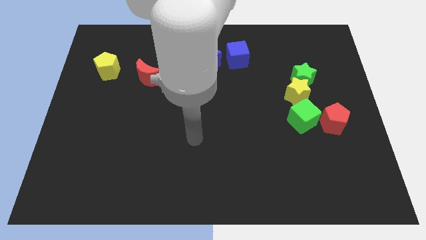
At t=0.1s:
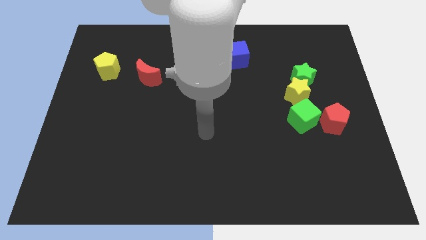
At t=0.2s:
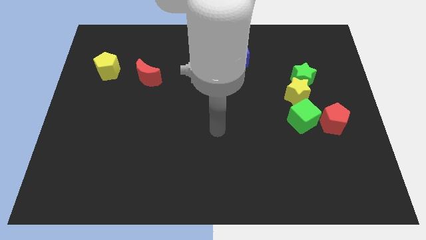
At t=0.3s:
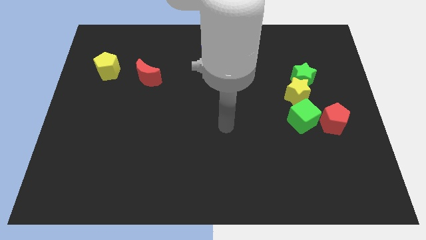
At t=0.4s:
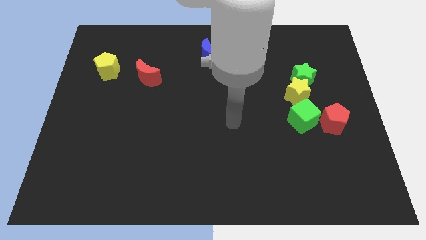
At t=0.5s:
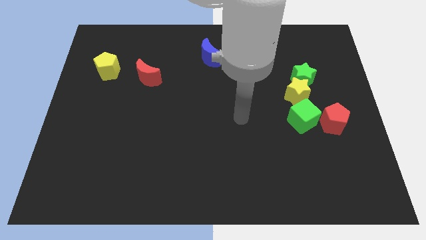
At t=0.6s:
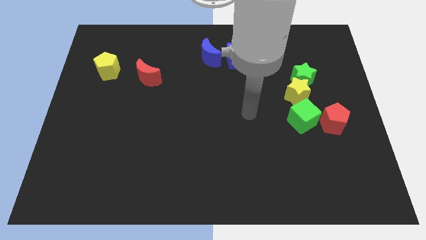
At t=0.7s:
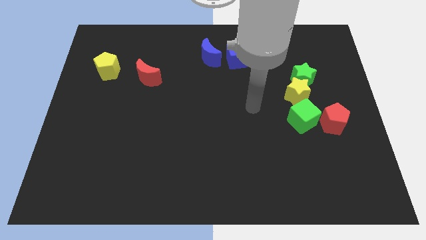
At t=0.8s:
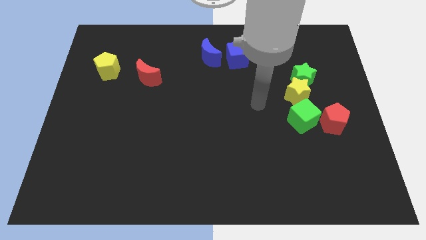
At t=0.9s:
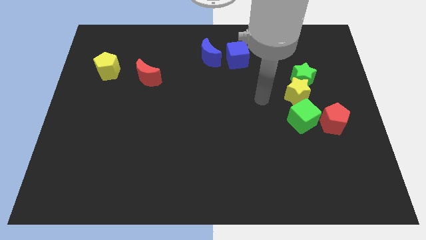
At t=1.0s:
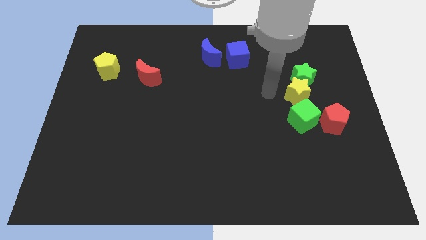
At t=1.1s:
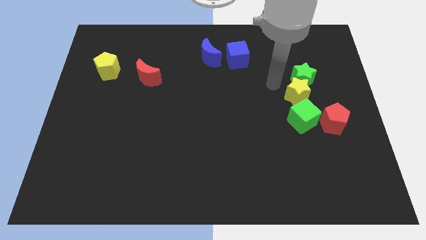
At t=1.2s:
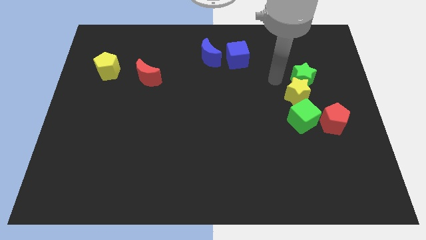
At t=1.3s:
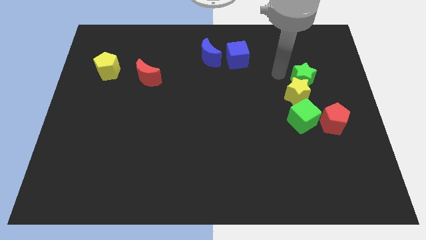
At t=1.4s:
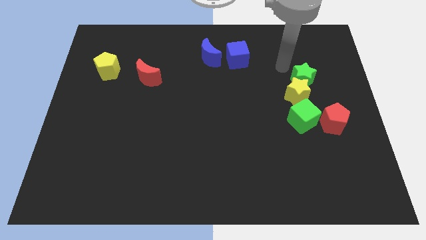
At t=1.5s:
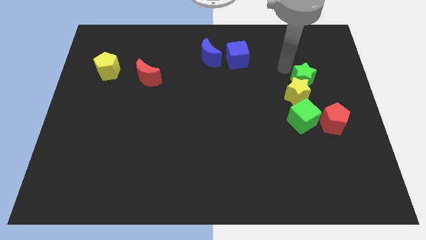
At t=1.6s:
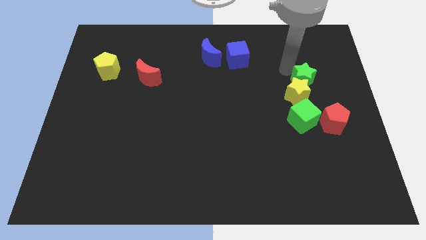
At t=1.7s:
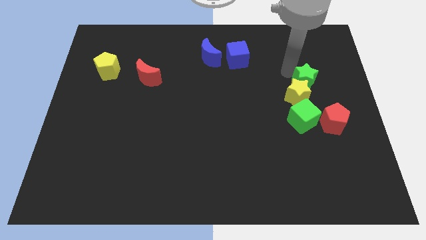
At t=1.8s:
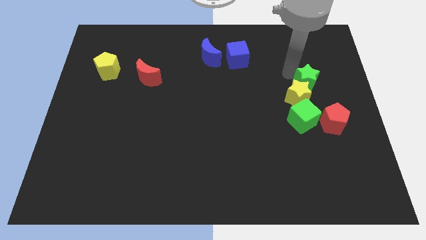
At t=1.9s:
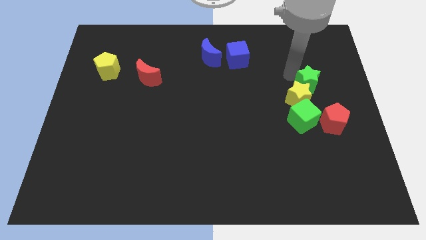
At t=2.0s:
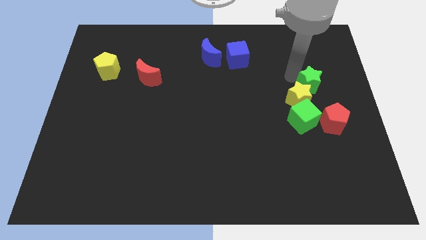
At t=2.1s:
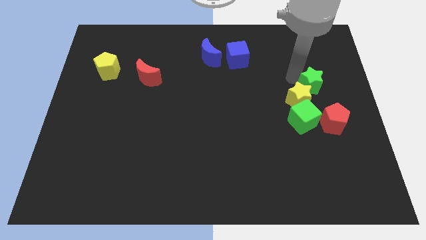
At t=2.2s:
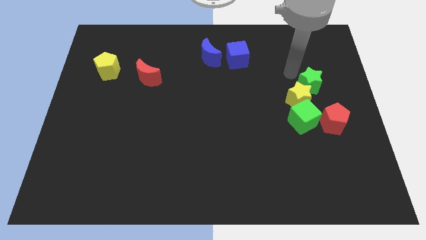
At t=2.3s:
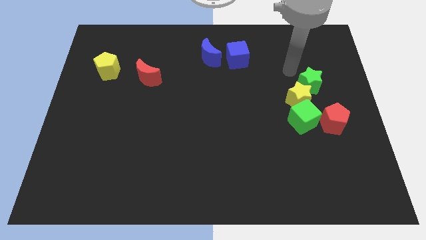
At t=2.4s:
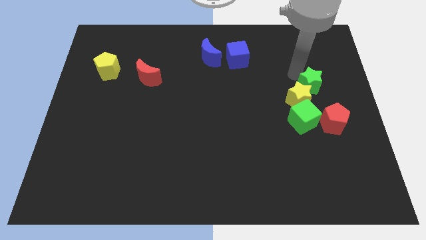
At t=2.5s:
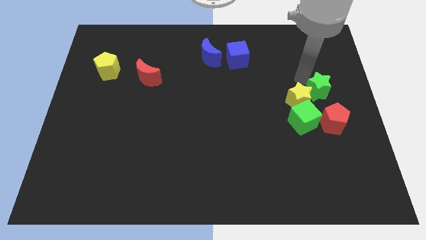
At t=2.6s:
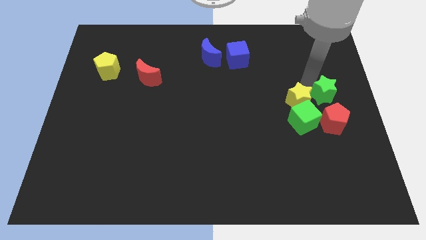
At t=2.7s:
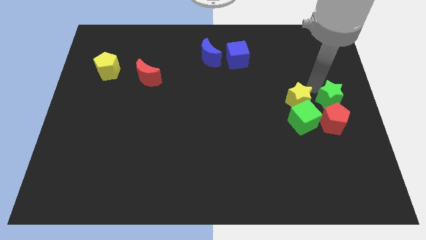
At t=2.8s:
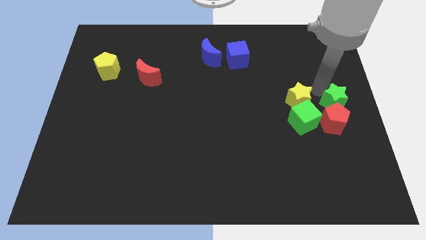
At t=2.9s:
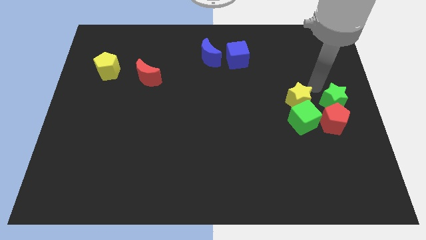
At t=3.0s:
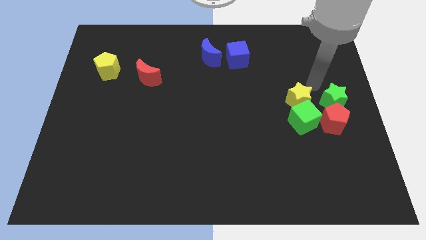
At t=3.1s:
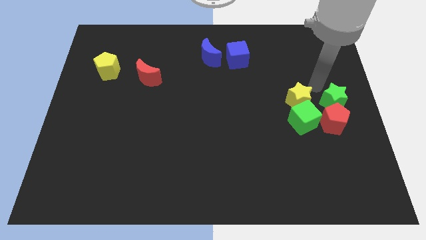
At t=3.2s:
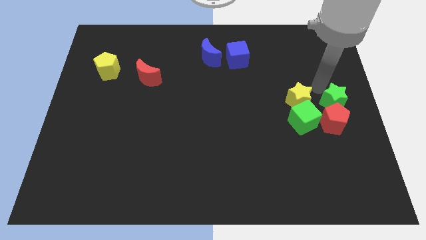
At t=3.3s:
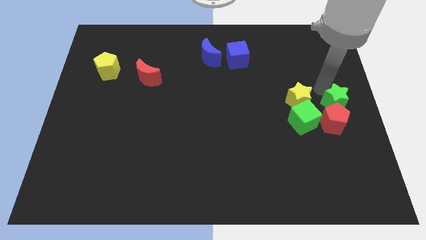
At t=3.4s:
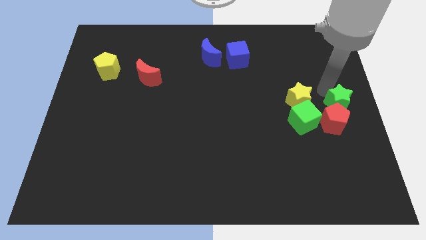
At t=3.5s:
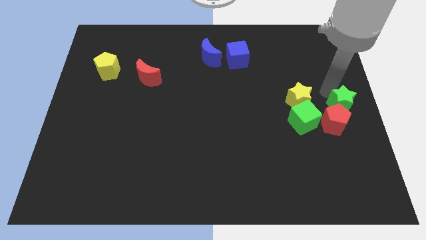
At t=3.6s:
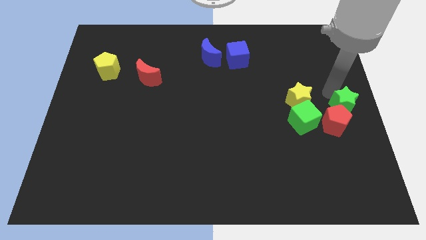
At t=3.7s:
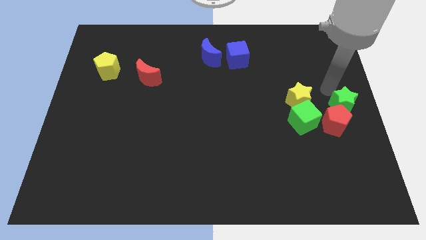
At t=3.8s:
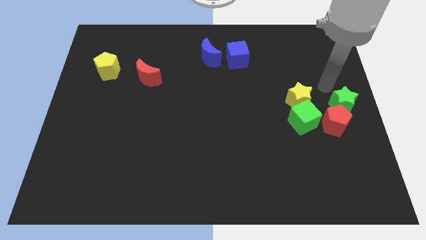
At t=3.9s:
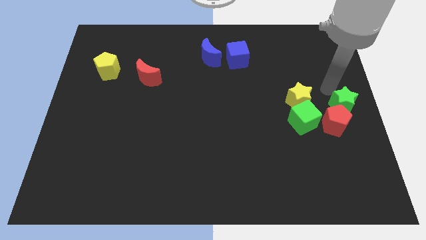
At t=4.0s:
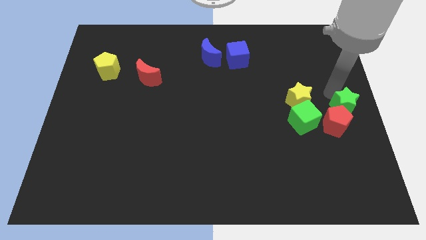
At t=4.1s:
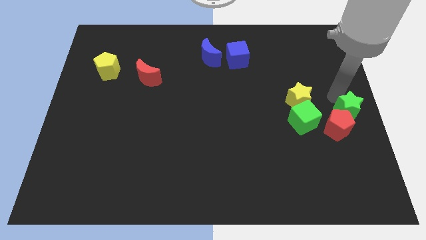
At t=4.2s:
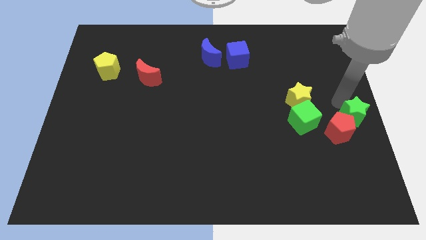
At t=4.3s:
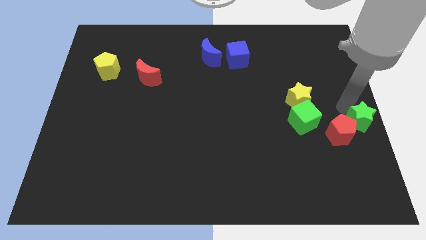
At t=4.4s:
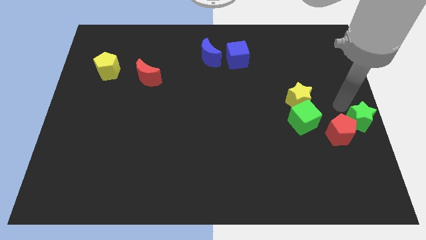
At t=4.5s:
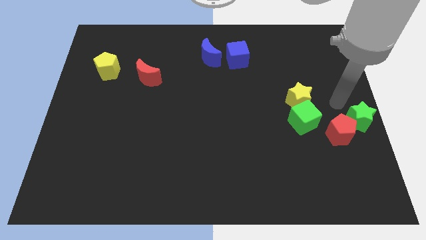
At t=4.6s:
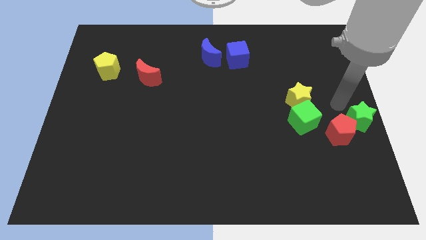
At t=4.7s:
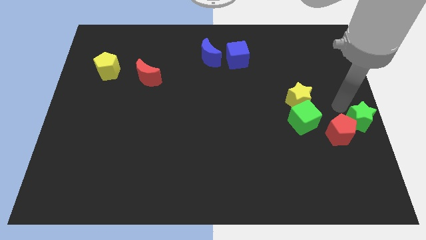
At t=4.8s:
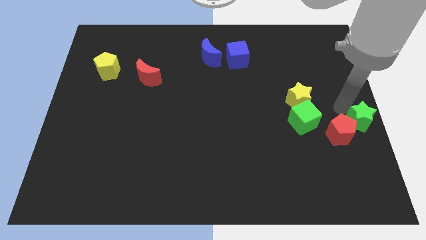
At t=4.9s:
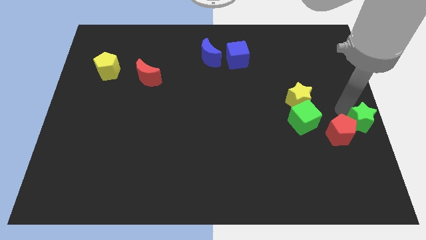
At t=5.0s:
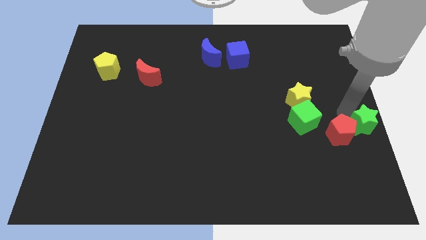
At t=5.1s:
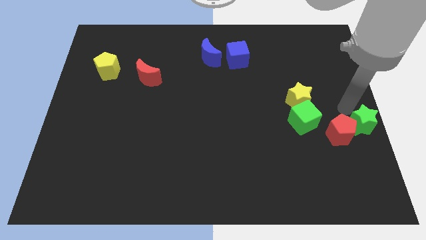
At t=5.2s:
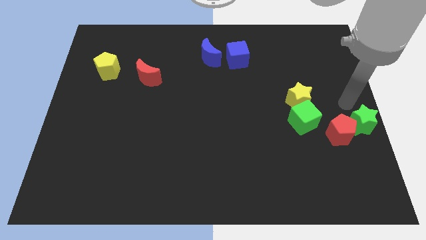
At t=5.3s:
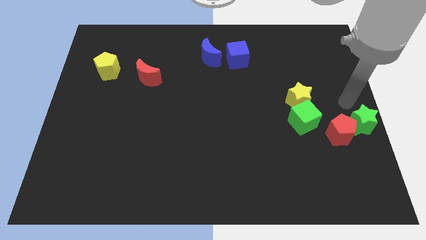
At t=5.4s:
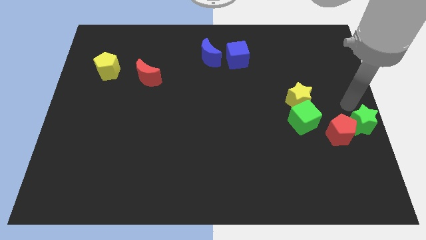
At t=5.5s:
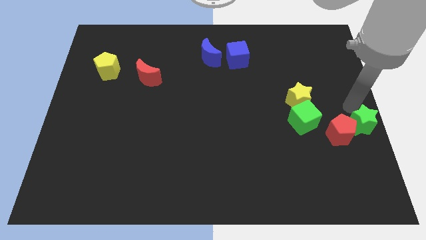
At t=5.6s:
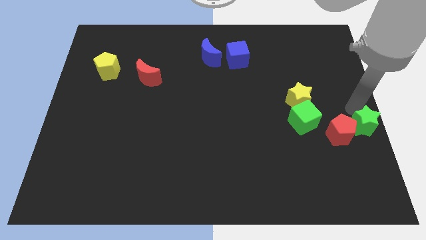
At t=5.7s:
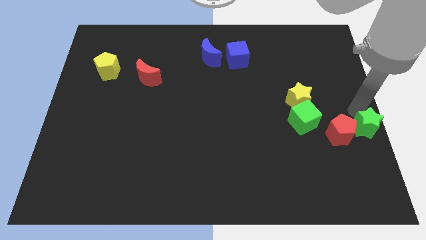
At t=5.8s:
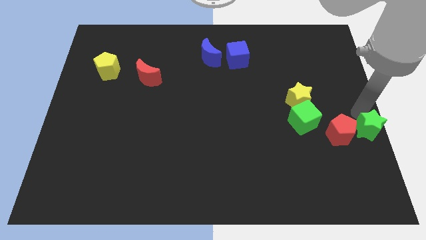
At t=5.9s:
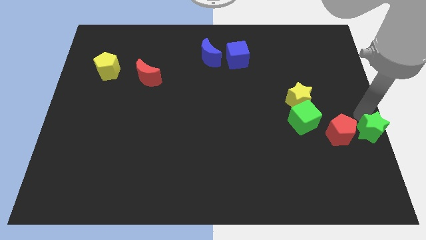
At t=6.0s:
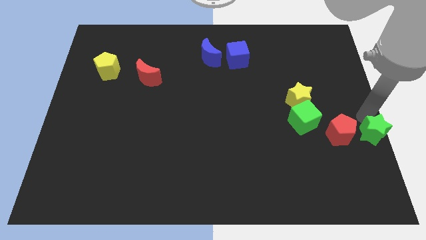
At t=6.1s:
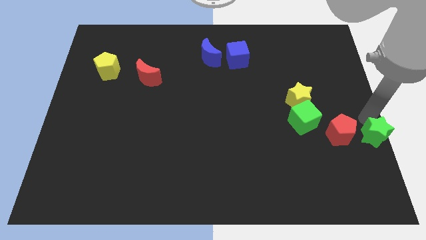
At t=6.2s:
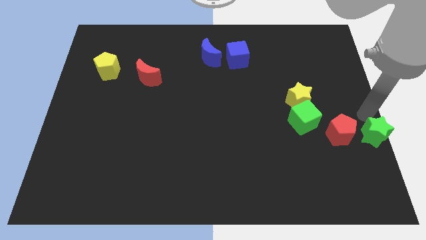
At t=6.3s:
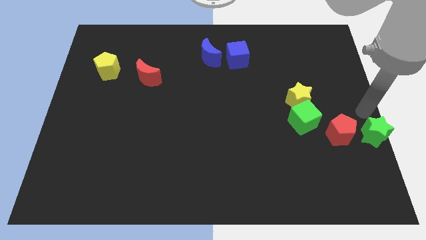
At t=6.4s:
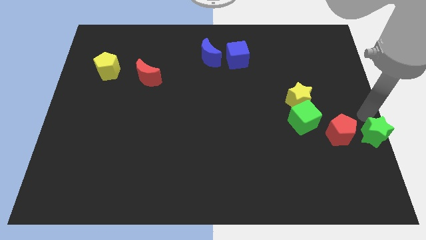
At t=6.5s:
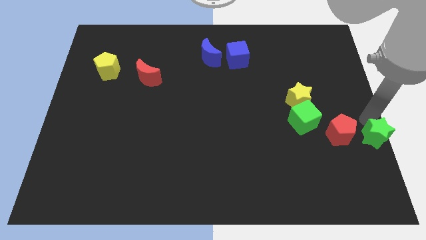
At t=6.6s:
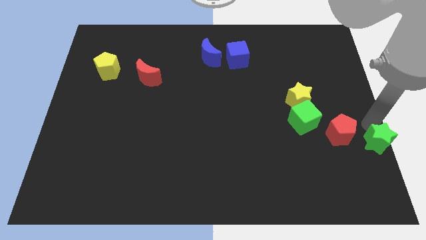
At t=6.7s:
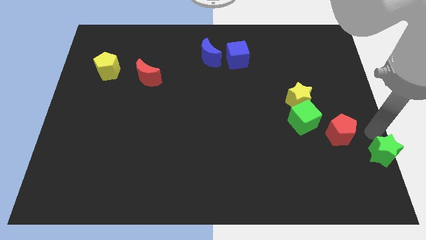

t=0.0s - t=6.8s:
move the green star to the lower right corner

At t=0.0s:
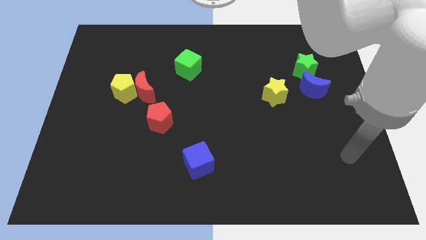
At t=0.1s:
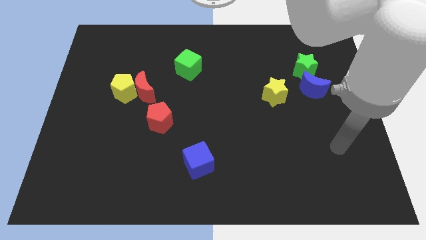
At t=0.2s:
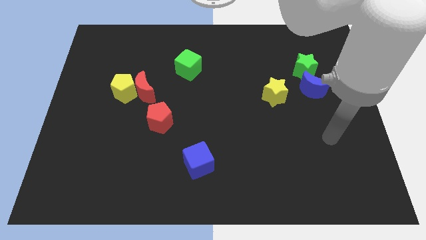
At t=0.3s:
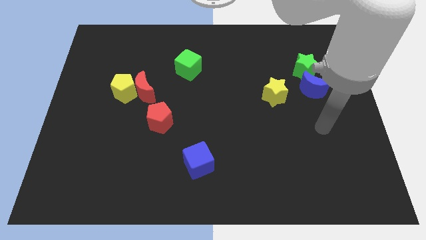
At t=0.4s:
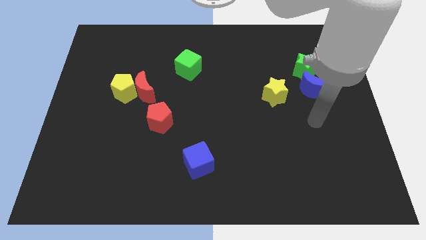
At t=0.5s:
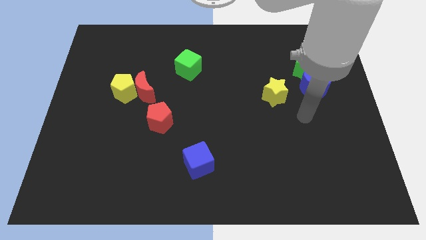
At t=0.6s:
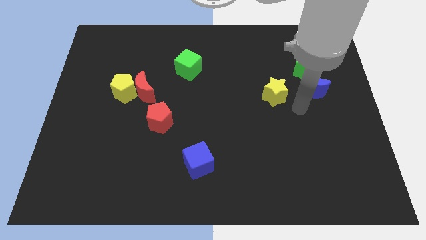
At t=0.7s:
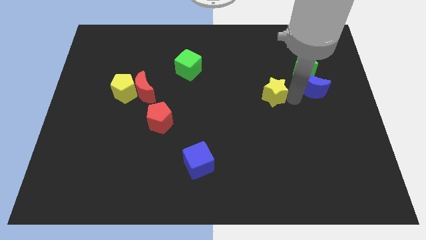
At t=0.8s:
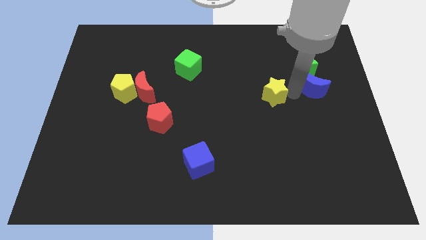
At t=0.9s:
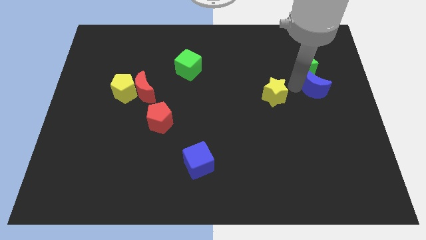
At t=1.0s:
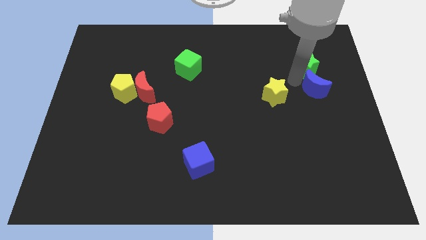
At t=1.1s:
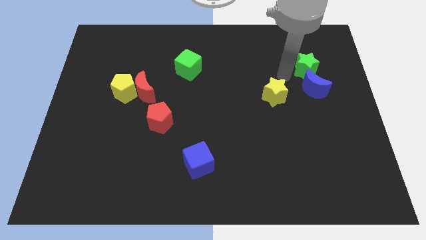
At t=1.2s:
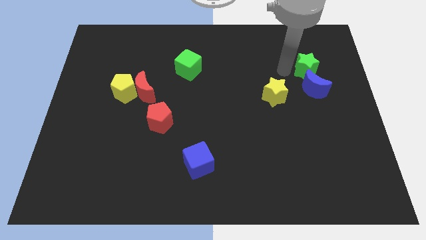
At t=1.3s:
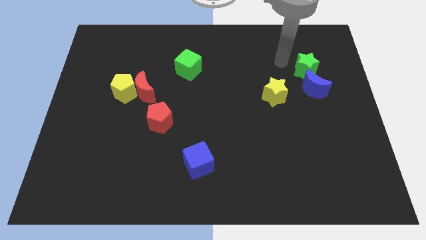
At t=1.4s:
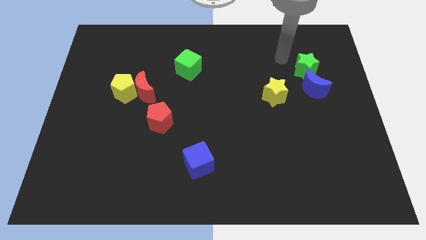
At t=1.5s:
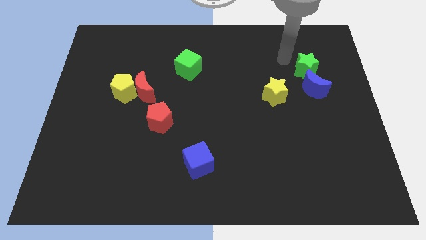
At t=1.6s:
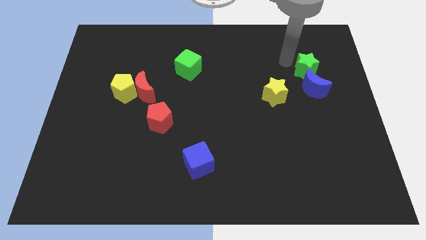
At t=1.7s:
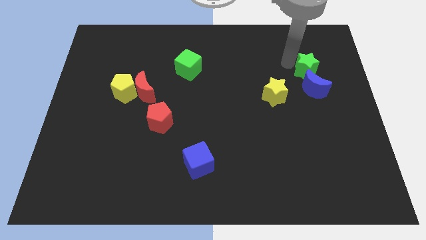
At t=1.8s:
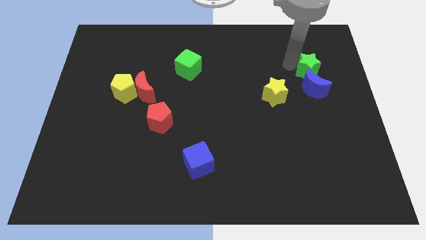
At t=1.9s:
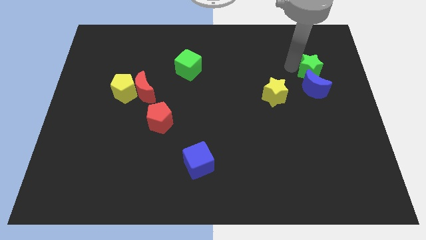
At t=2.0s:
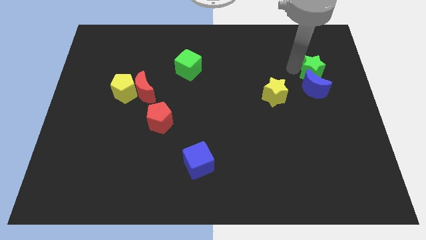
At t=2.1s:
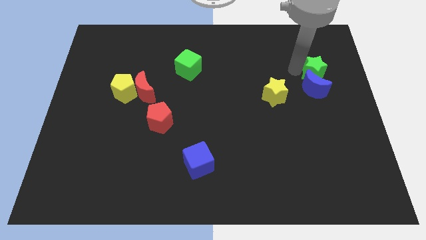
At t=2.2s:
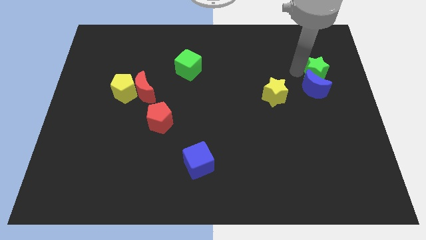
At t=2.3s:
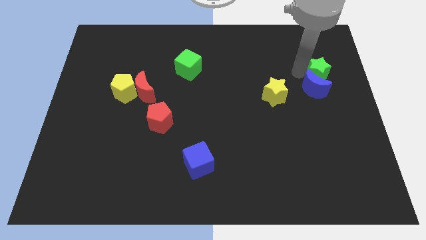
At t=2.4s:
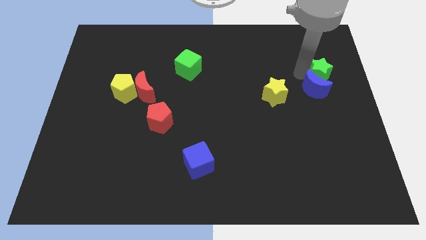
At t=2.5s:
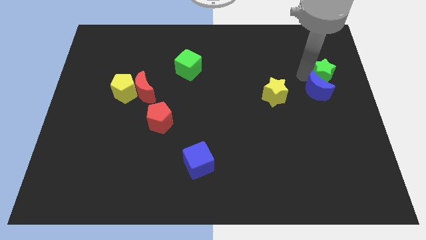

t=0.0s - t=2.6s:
put the green star to the right side
